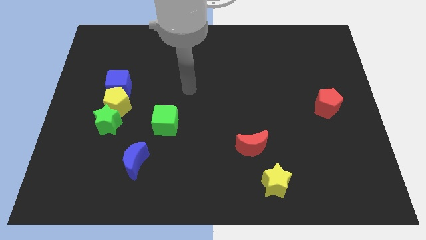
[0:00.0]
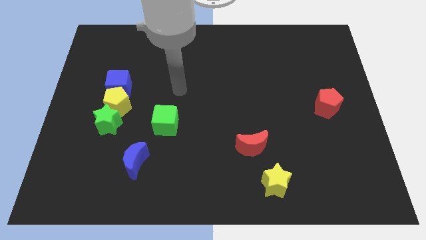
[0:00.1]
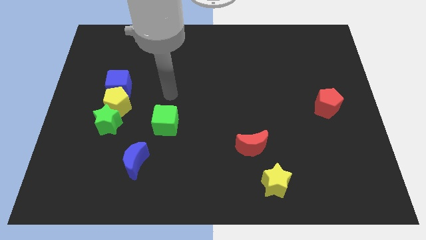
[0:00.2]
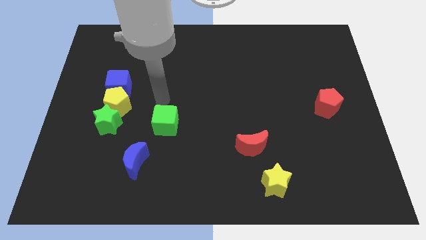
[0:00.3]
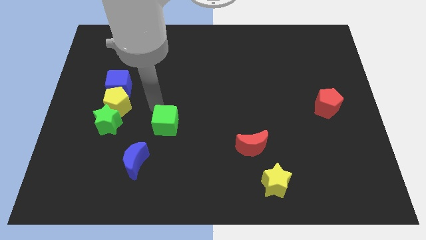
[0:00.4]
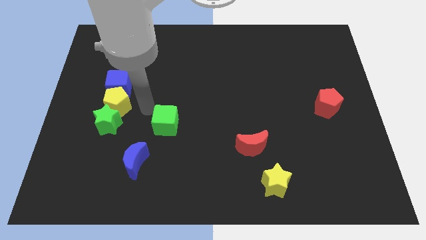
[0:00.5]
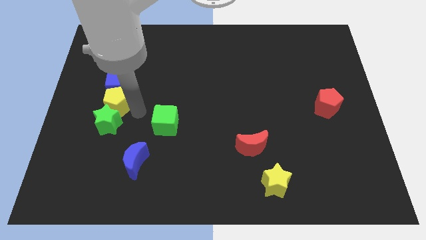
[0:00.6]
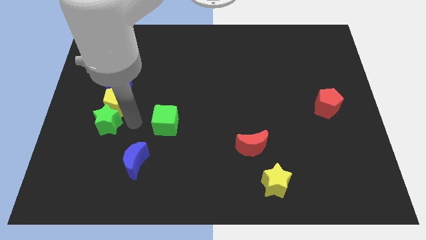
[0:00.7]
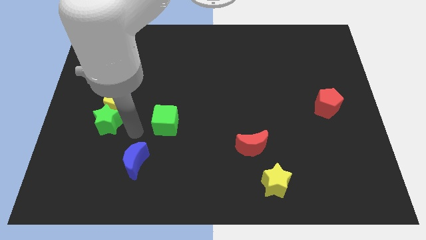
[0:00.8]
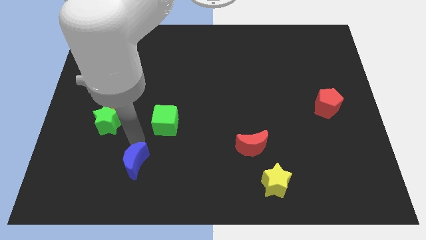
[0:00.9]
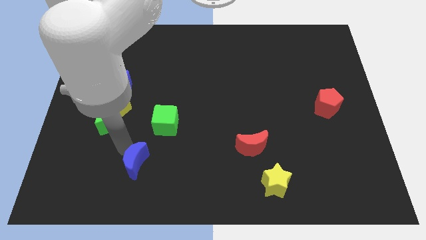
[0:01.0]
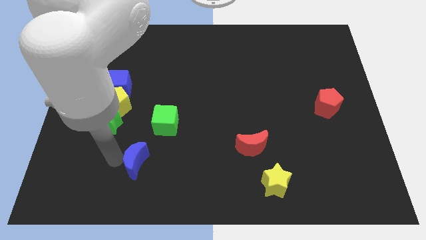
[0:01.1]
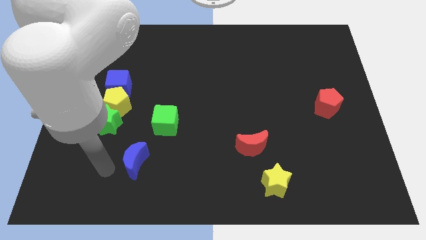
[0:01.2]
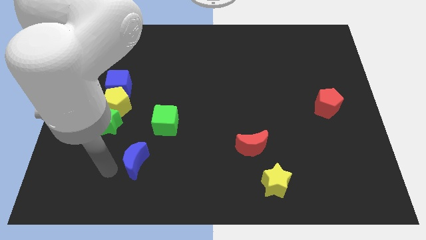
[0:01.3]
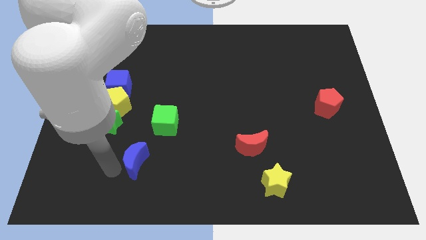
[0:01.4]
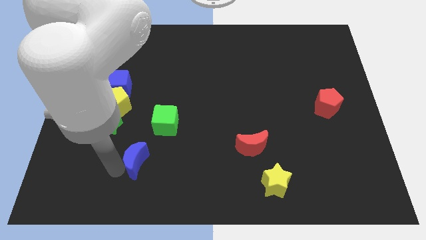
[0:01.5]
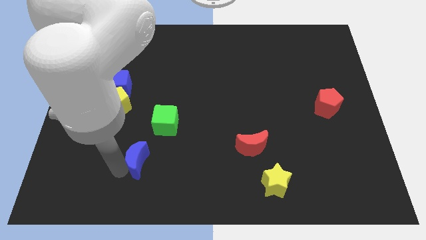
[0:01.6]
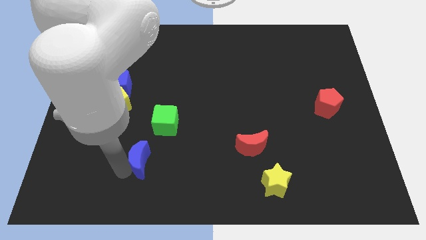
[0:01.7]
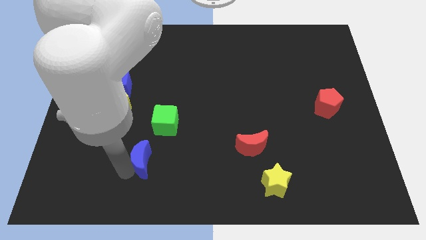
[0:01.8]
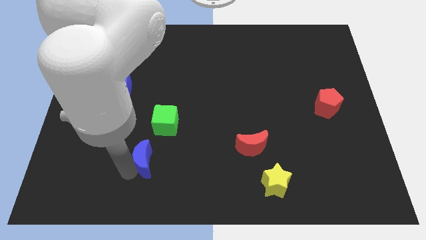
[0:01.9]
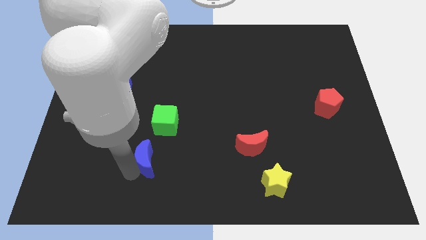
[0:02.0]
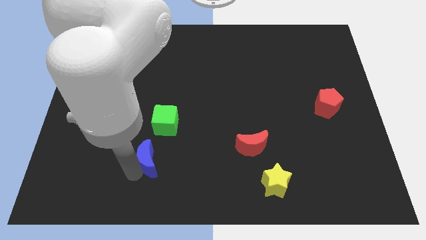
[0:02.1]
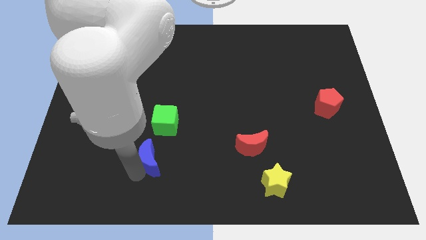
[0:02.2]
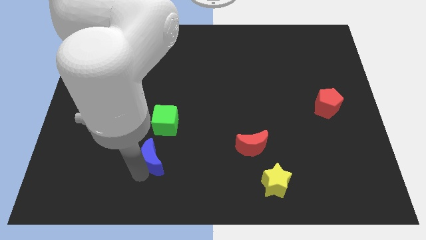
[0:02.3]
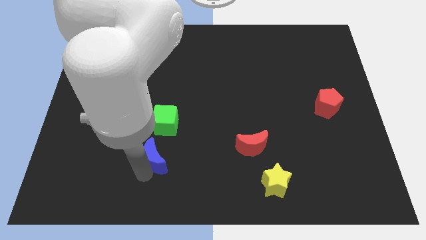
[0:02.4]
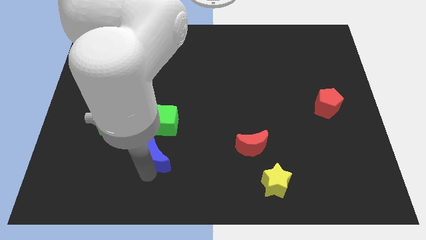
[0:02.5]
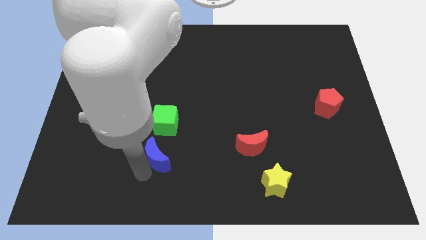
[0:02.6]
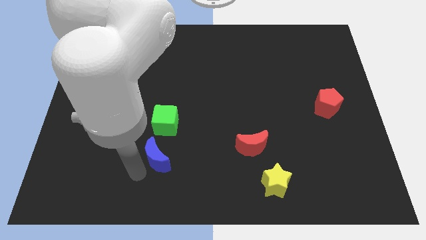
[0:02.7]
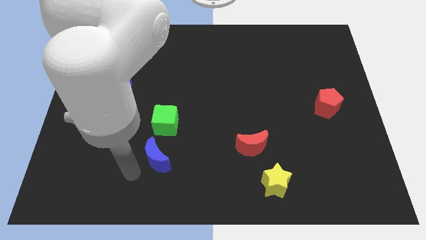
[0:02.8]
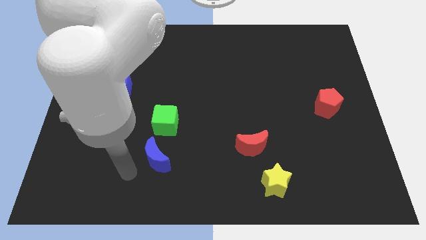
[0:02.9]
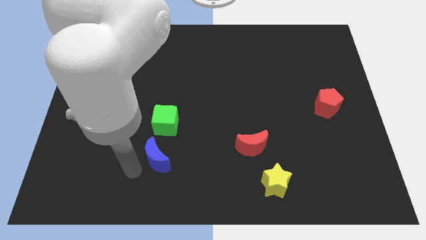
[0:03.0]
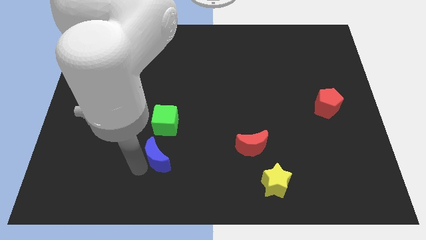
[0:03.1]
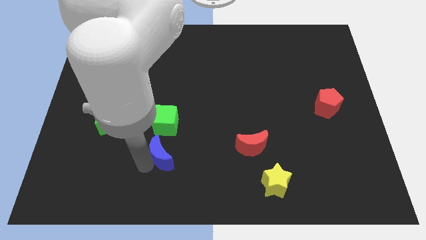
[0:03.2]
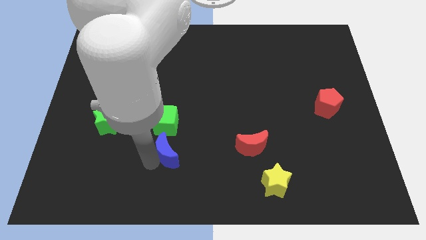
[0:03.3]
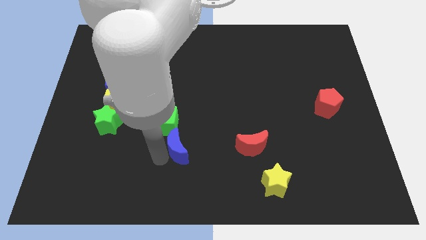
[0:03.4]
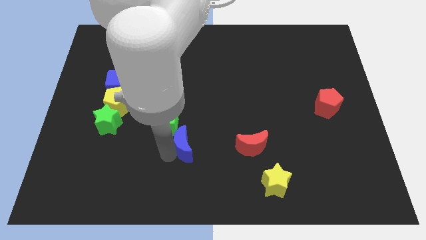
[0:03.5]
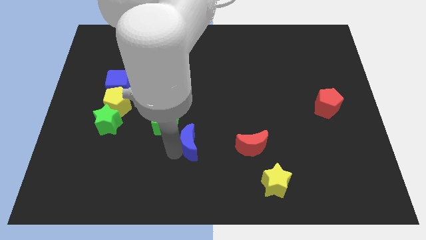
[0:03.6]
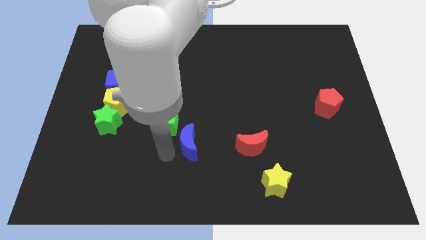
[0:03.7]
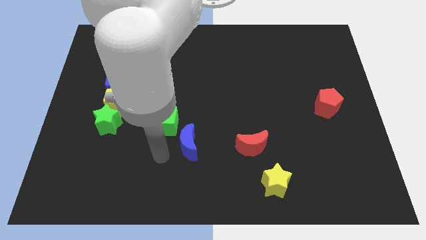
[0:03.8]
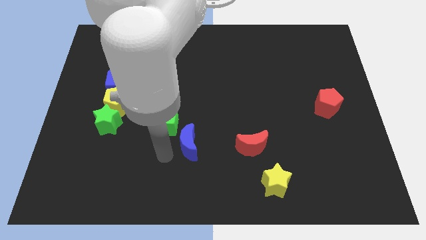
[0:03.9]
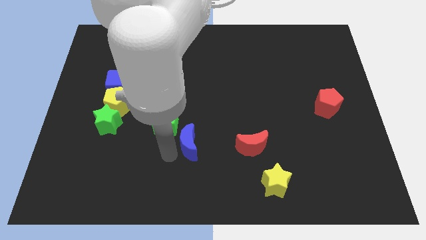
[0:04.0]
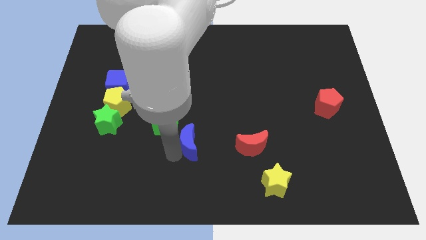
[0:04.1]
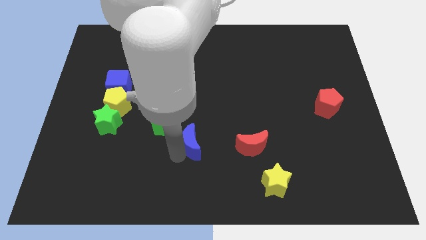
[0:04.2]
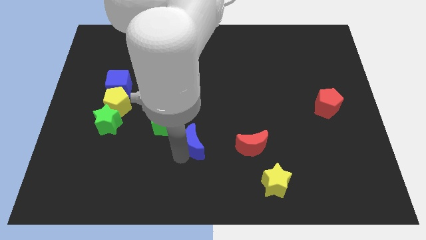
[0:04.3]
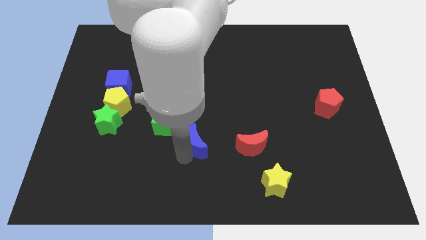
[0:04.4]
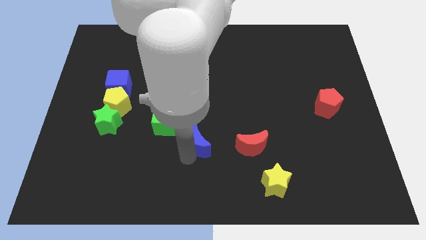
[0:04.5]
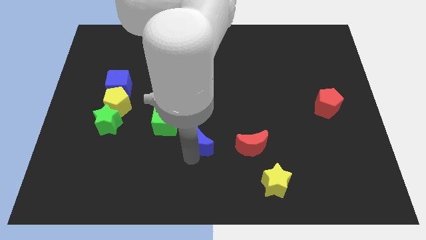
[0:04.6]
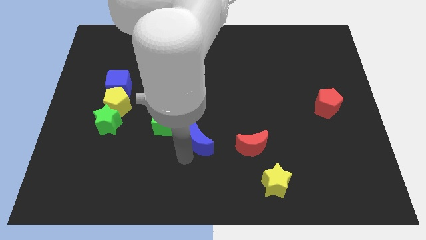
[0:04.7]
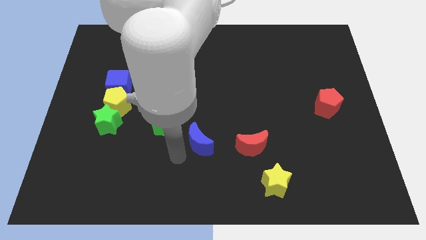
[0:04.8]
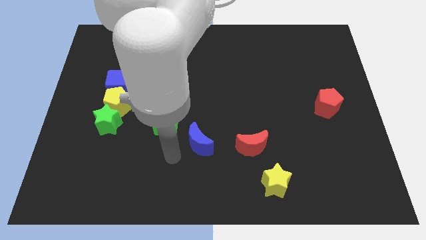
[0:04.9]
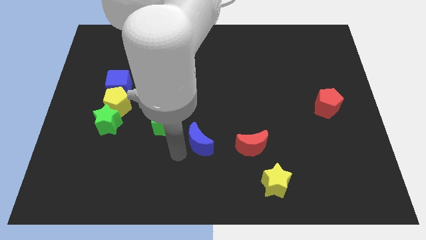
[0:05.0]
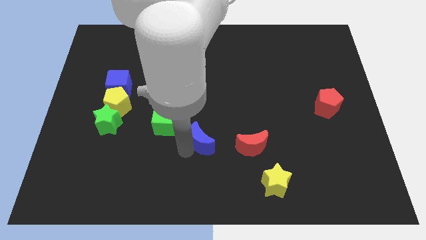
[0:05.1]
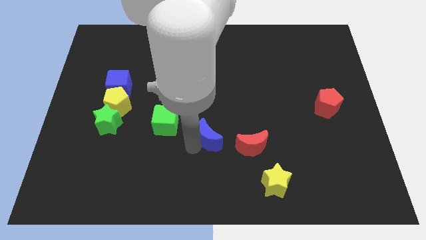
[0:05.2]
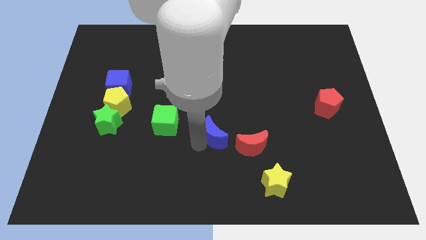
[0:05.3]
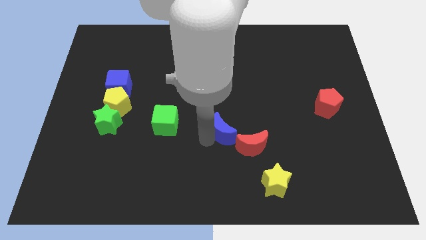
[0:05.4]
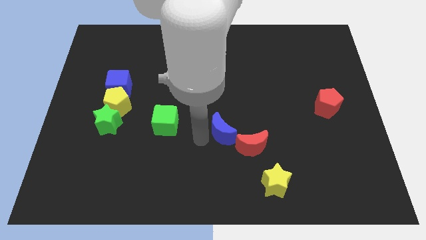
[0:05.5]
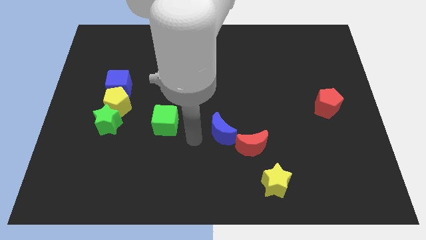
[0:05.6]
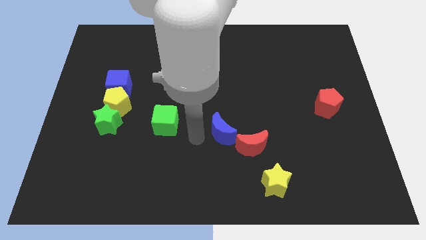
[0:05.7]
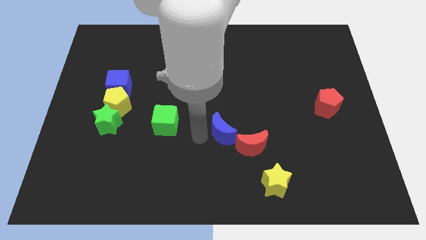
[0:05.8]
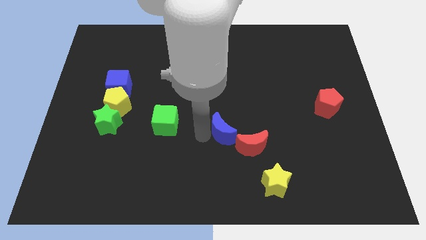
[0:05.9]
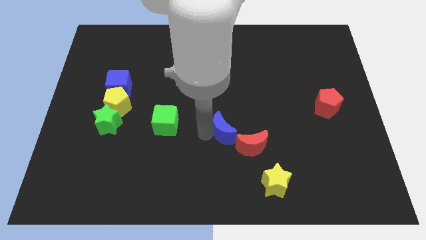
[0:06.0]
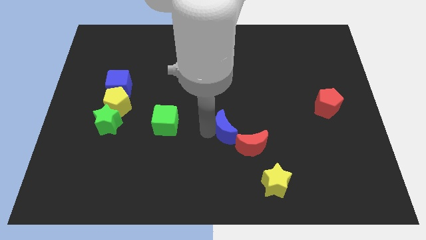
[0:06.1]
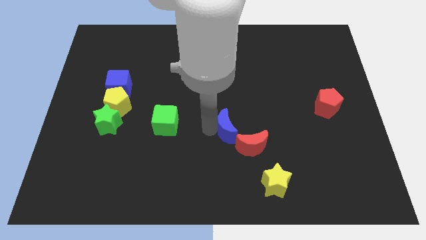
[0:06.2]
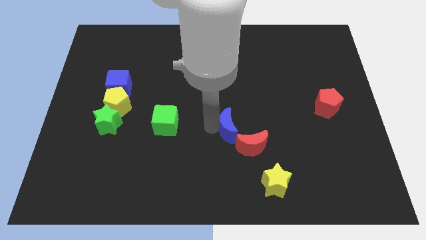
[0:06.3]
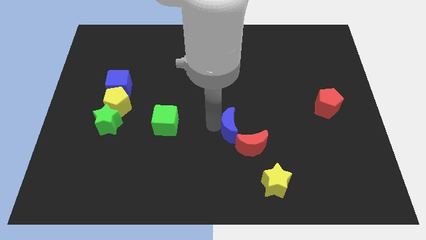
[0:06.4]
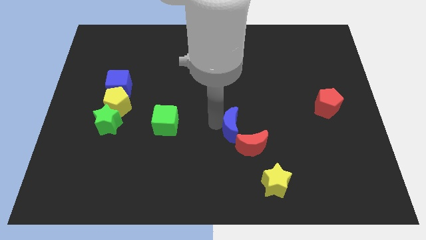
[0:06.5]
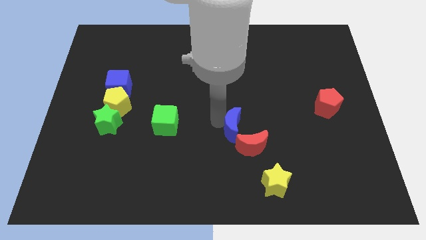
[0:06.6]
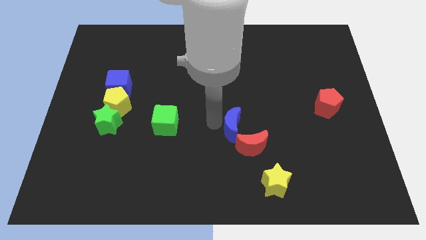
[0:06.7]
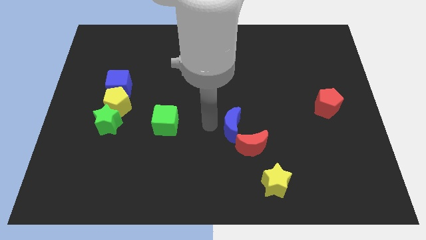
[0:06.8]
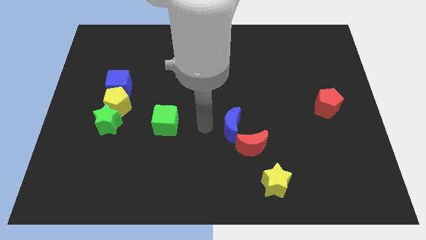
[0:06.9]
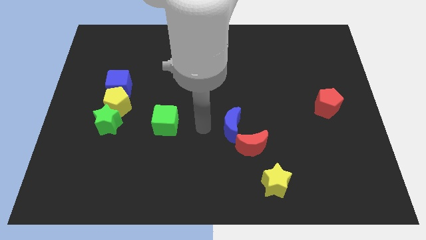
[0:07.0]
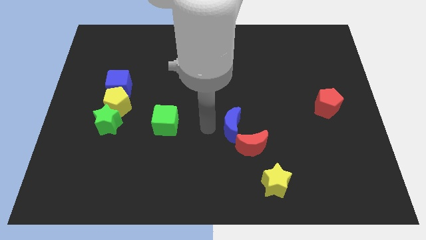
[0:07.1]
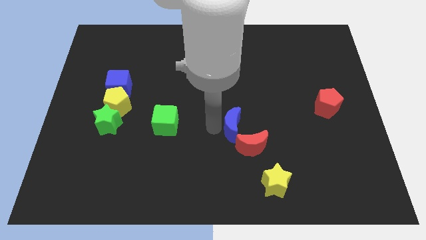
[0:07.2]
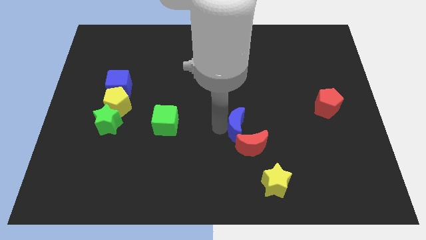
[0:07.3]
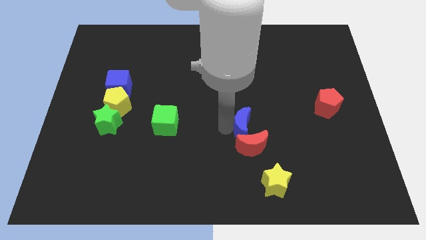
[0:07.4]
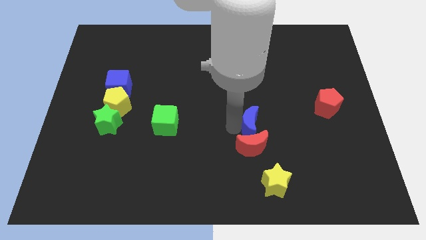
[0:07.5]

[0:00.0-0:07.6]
put the blue moon to the top right side of the red moon

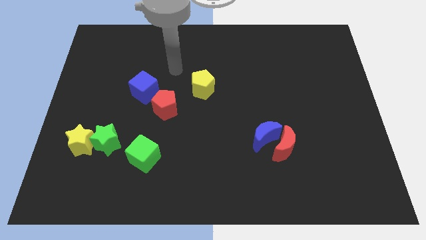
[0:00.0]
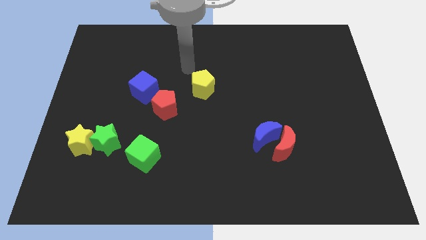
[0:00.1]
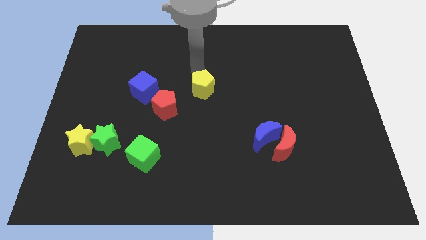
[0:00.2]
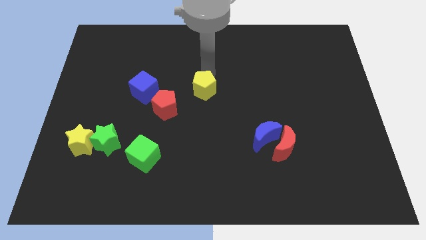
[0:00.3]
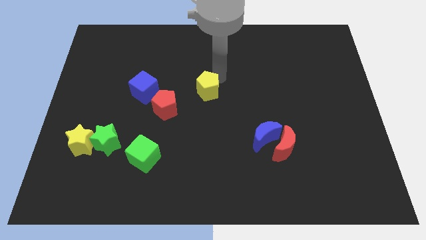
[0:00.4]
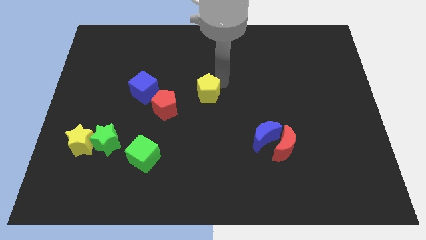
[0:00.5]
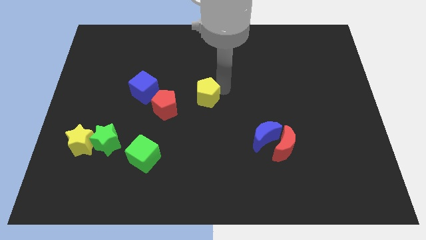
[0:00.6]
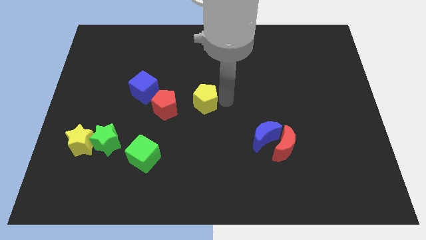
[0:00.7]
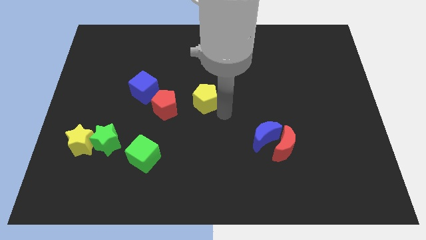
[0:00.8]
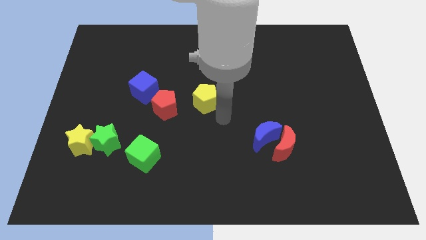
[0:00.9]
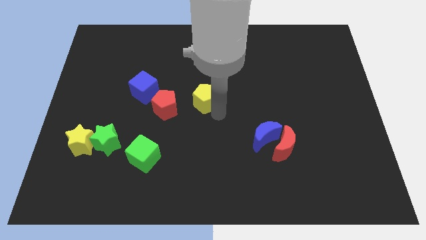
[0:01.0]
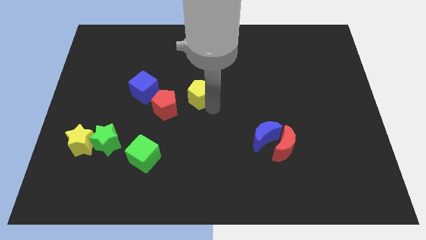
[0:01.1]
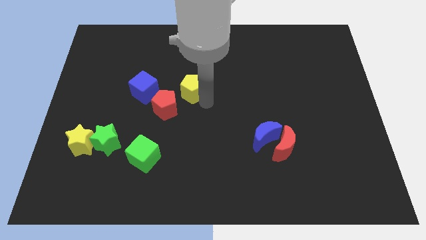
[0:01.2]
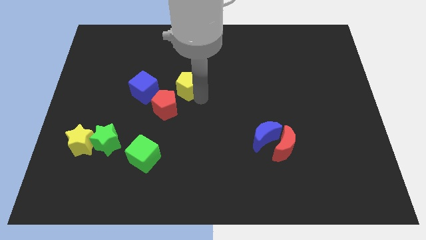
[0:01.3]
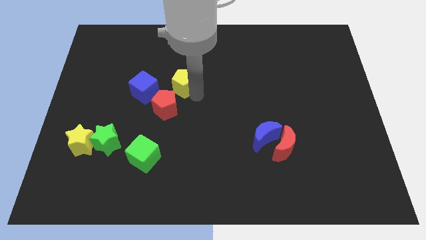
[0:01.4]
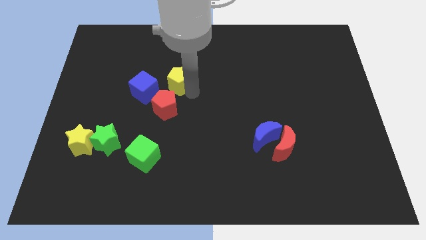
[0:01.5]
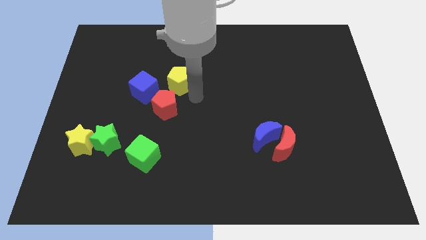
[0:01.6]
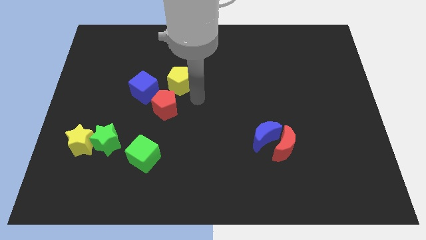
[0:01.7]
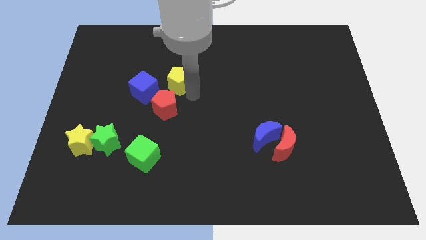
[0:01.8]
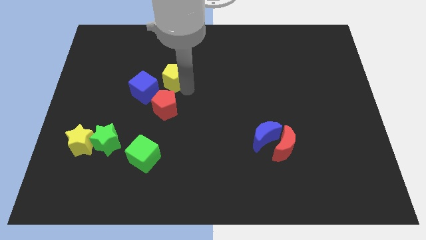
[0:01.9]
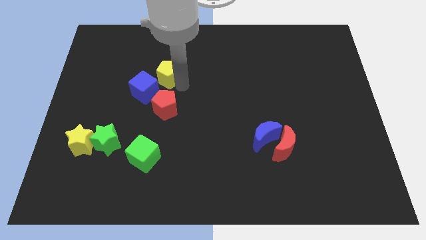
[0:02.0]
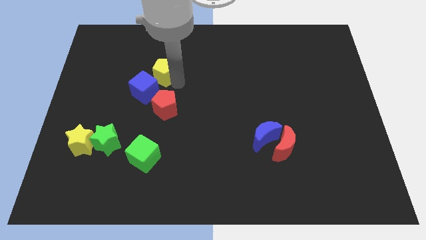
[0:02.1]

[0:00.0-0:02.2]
slide the yellow pentagon above the blue cube
